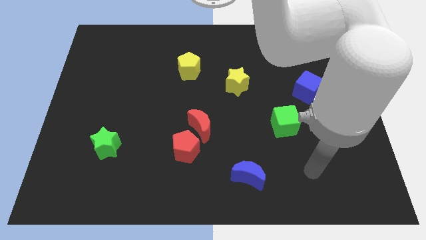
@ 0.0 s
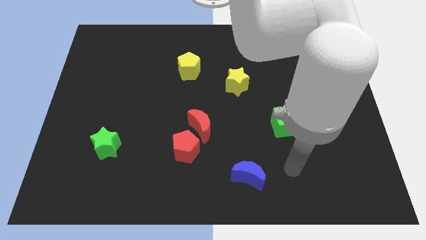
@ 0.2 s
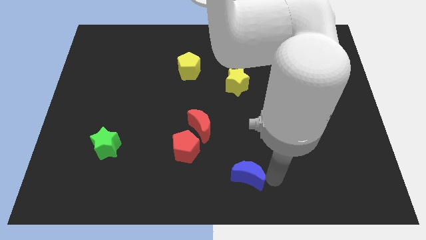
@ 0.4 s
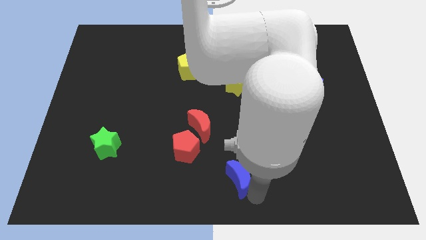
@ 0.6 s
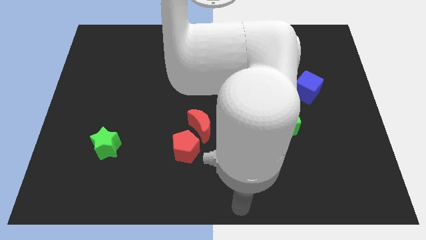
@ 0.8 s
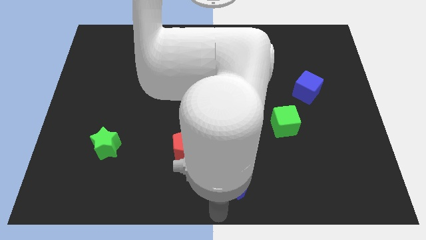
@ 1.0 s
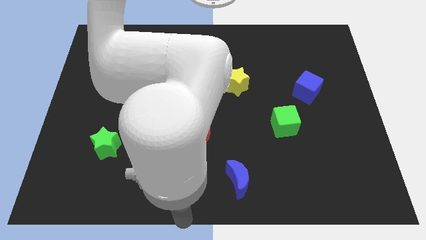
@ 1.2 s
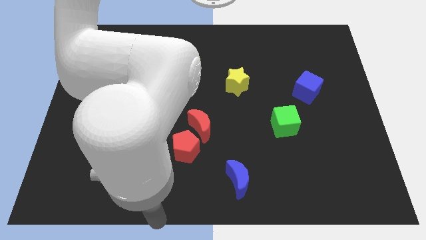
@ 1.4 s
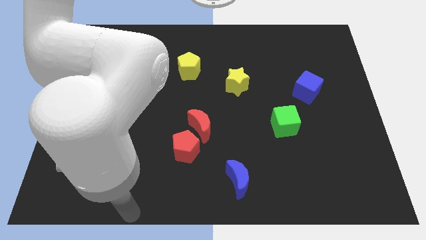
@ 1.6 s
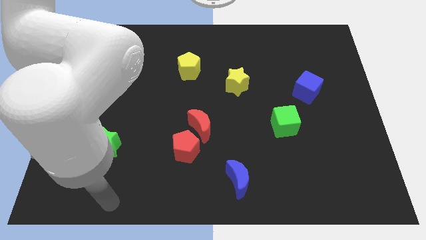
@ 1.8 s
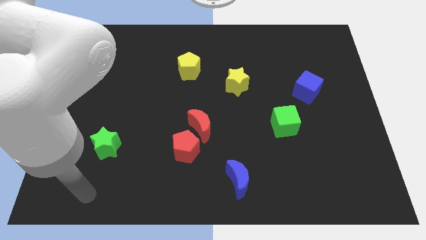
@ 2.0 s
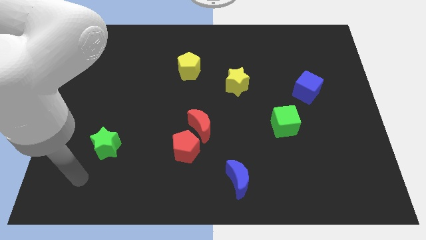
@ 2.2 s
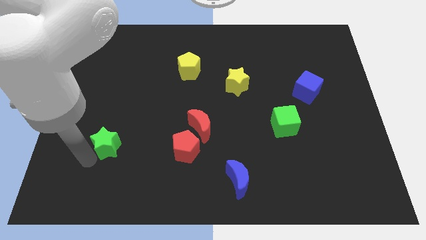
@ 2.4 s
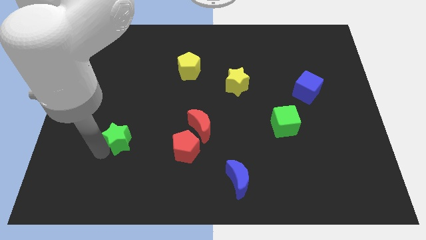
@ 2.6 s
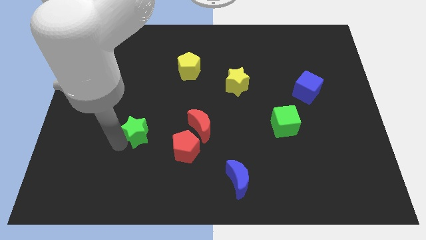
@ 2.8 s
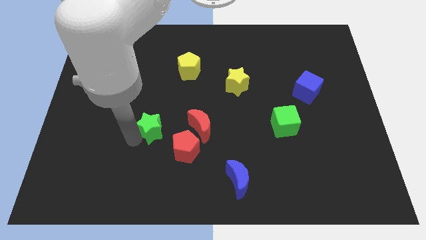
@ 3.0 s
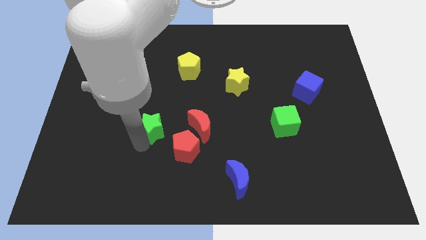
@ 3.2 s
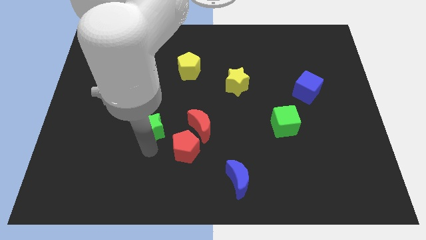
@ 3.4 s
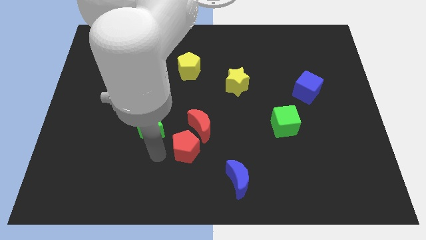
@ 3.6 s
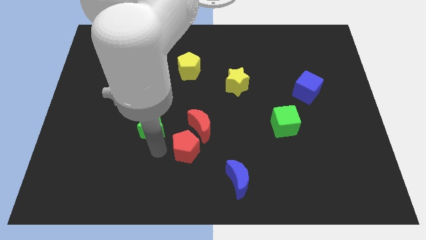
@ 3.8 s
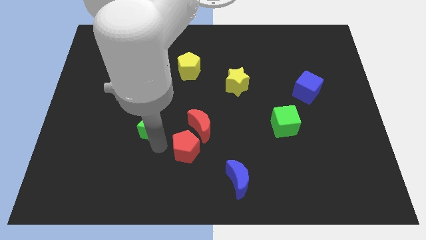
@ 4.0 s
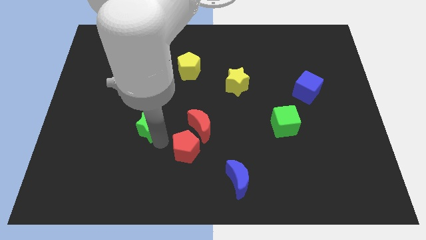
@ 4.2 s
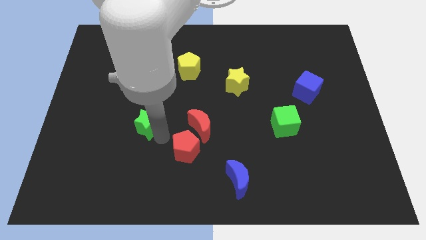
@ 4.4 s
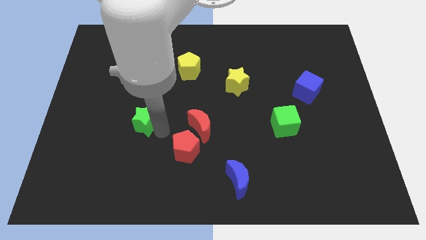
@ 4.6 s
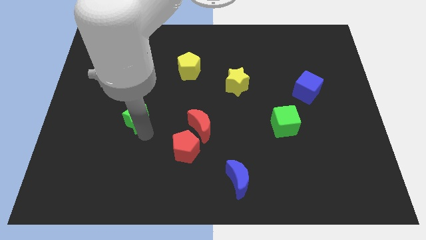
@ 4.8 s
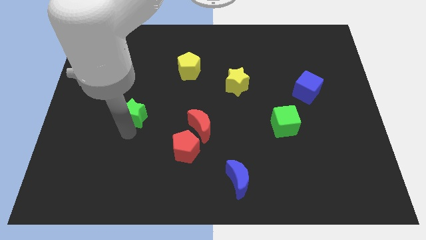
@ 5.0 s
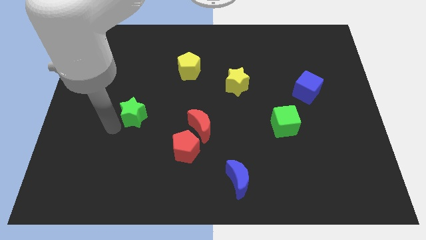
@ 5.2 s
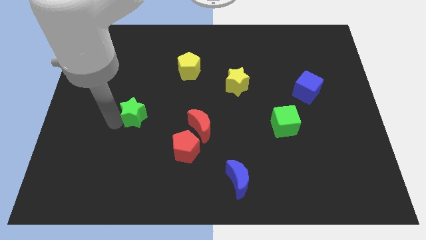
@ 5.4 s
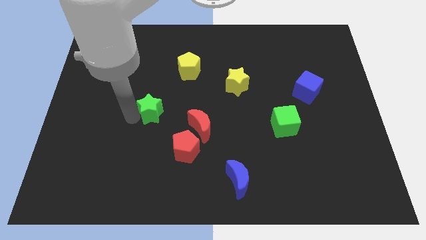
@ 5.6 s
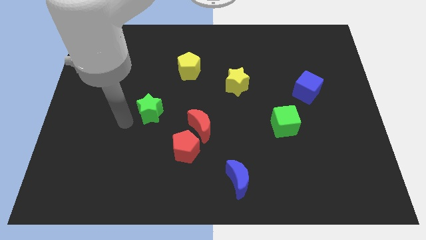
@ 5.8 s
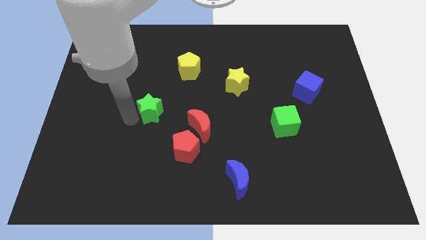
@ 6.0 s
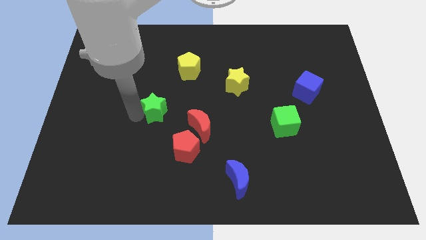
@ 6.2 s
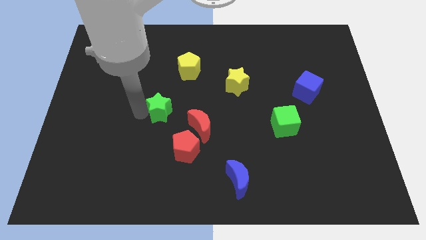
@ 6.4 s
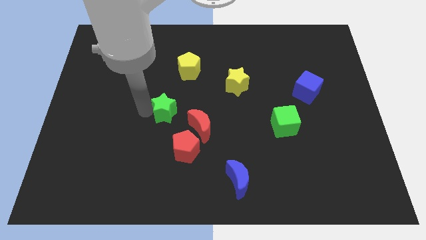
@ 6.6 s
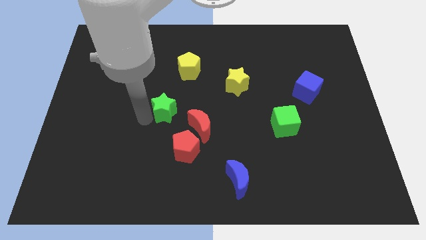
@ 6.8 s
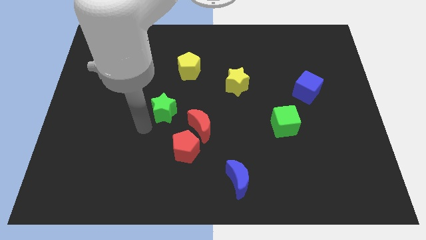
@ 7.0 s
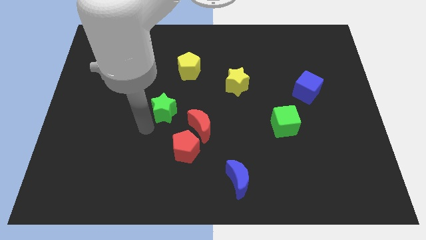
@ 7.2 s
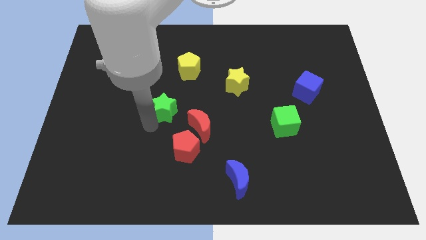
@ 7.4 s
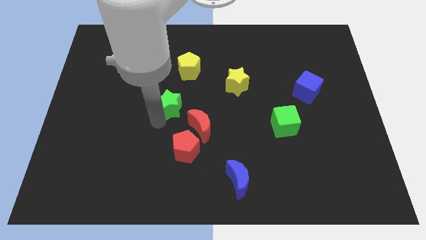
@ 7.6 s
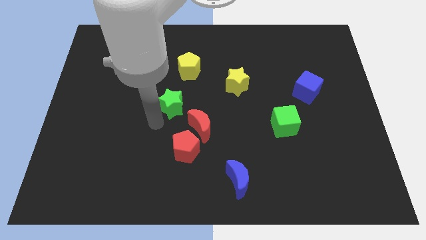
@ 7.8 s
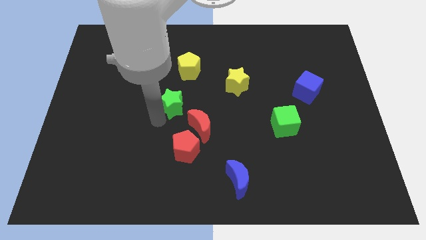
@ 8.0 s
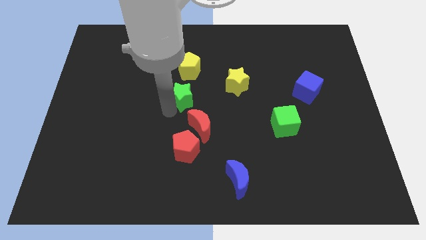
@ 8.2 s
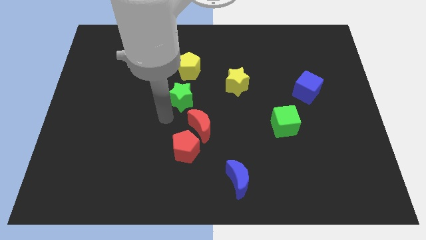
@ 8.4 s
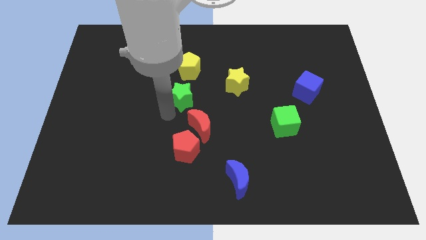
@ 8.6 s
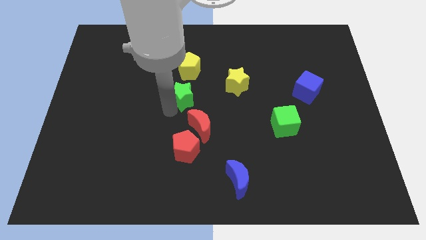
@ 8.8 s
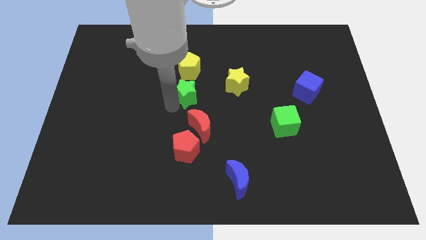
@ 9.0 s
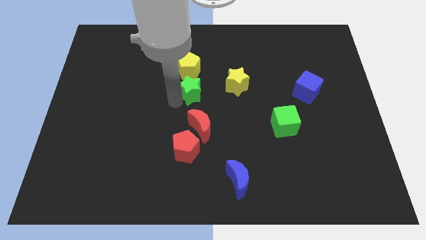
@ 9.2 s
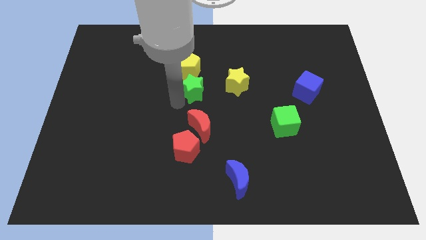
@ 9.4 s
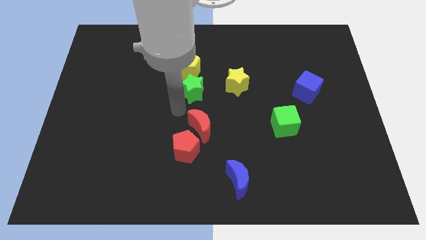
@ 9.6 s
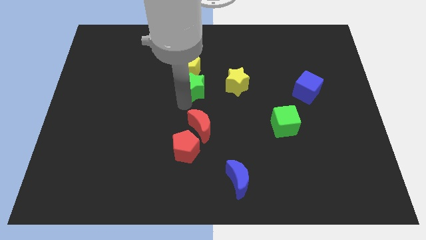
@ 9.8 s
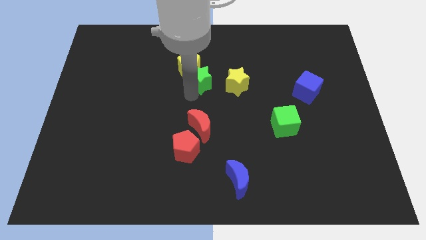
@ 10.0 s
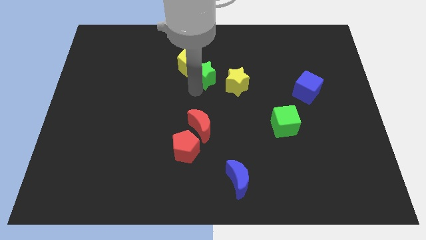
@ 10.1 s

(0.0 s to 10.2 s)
move the green star to the top left side of the yellow star

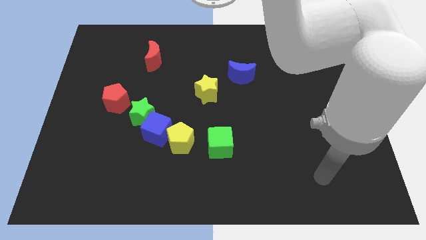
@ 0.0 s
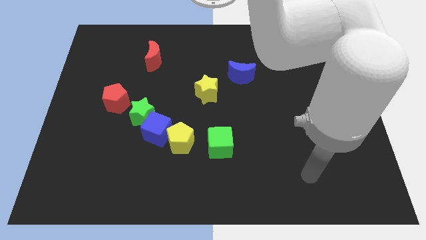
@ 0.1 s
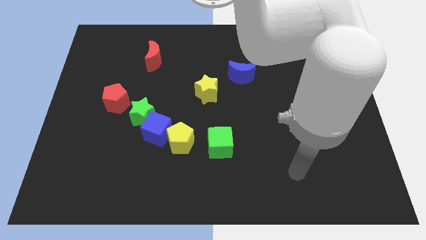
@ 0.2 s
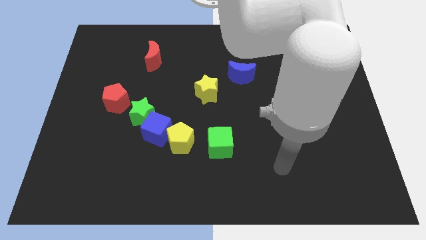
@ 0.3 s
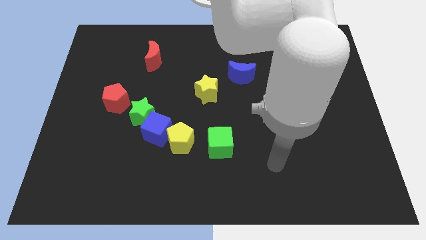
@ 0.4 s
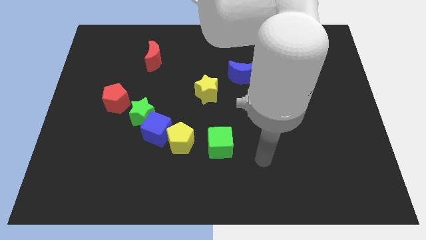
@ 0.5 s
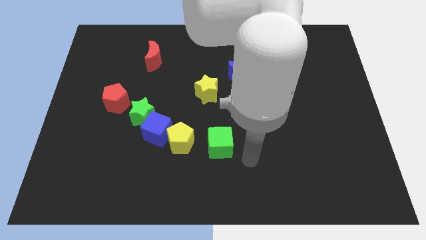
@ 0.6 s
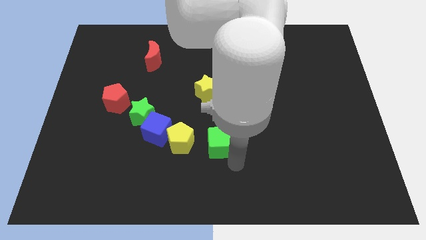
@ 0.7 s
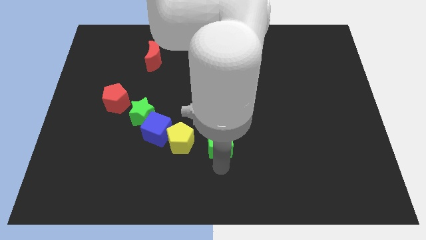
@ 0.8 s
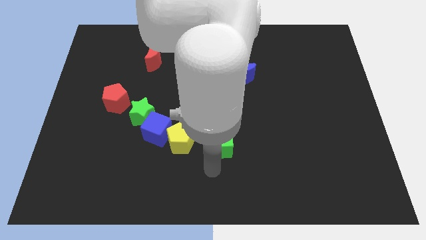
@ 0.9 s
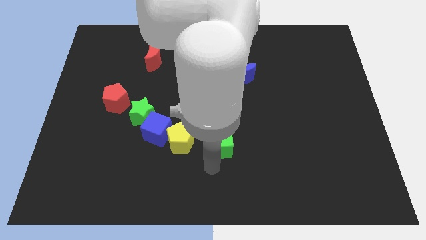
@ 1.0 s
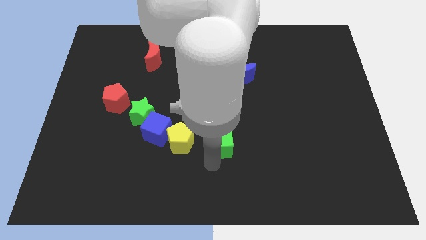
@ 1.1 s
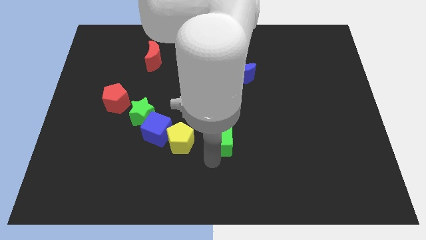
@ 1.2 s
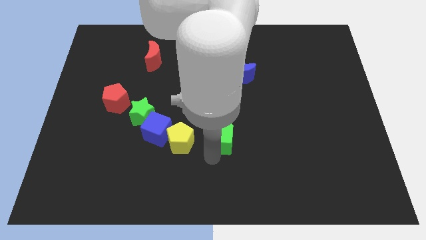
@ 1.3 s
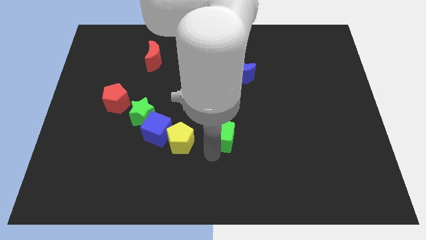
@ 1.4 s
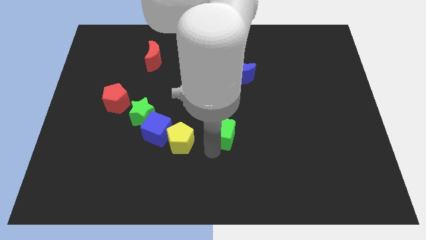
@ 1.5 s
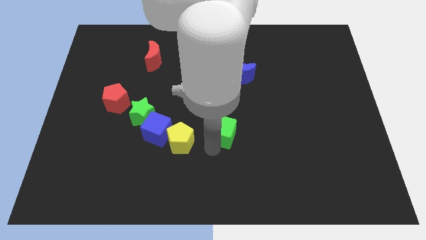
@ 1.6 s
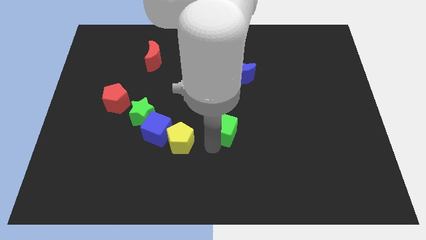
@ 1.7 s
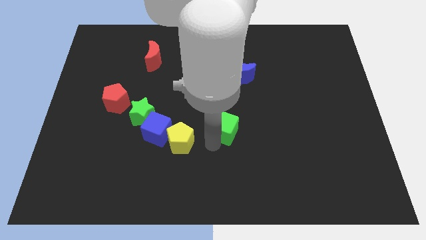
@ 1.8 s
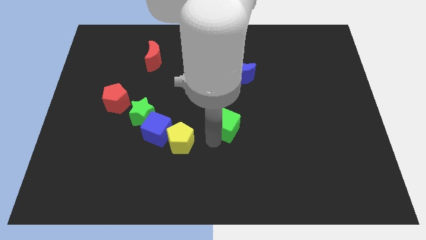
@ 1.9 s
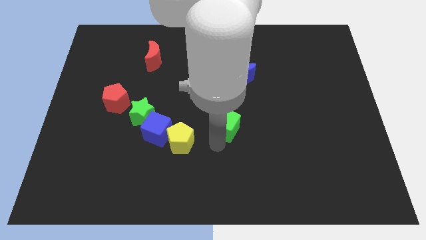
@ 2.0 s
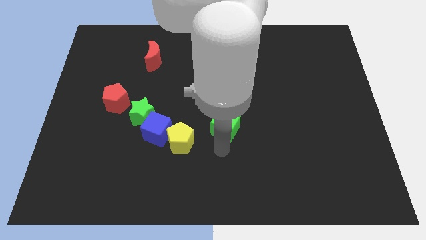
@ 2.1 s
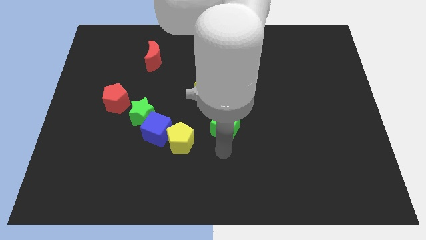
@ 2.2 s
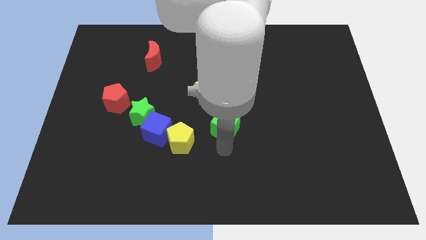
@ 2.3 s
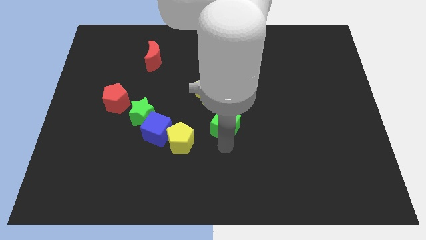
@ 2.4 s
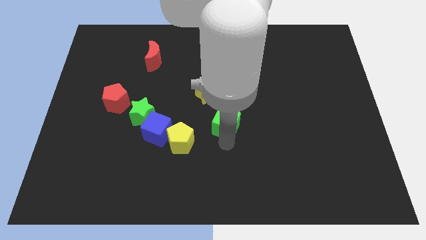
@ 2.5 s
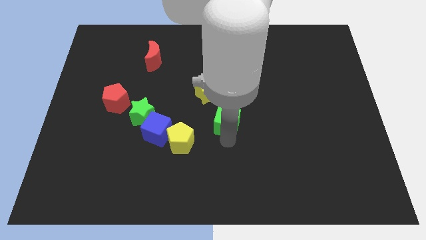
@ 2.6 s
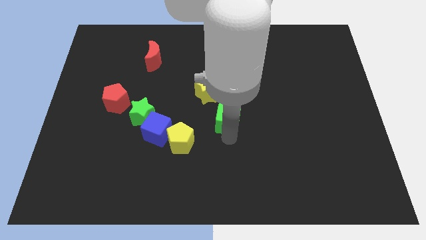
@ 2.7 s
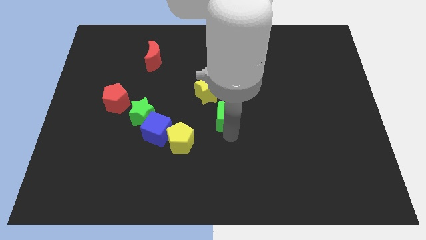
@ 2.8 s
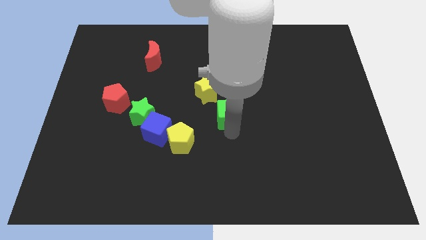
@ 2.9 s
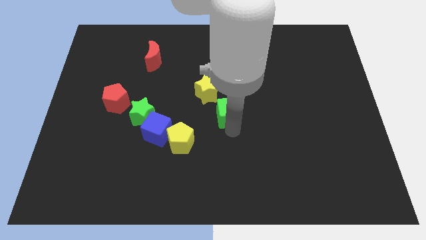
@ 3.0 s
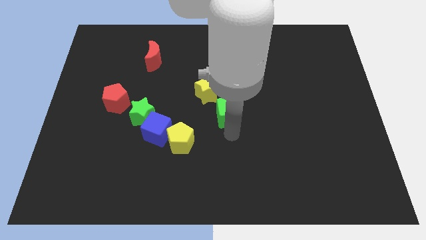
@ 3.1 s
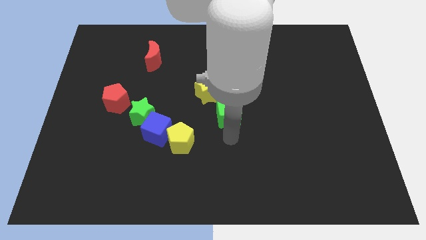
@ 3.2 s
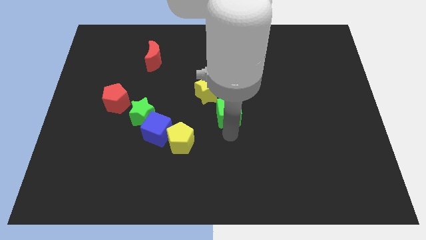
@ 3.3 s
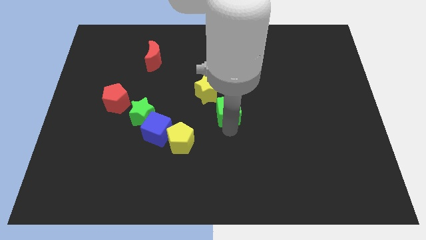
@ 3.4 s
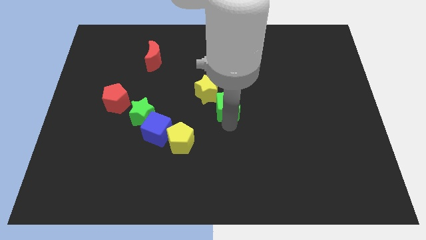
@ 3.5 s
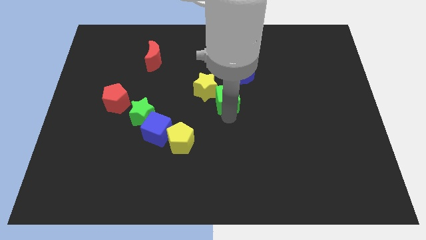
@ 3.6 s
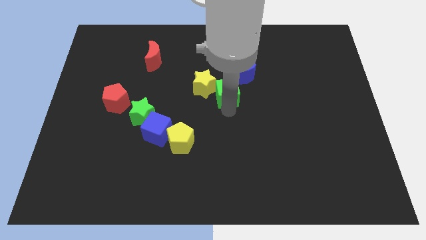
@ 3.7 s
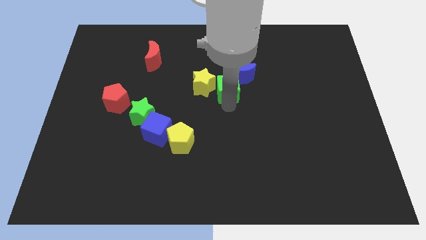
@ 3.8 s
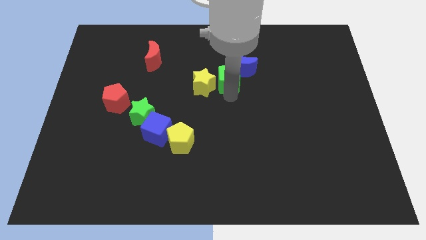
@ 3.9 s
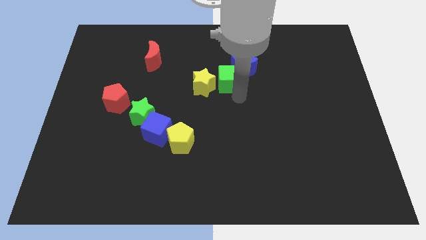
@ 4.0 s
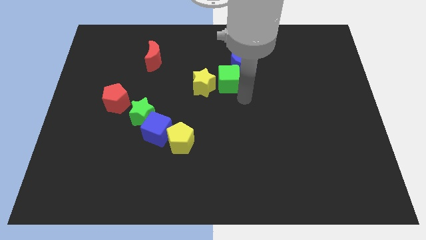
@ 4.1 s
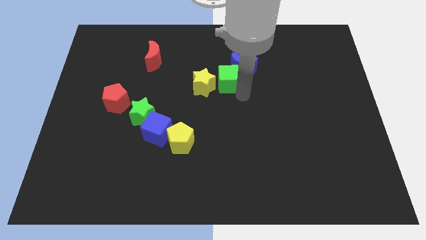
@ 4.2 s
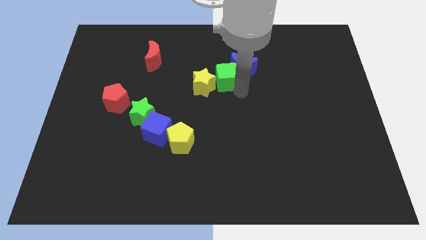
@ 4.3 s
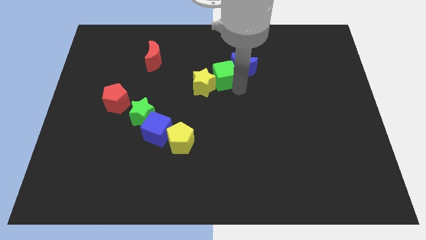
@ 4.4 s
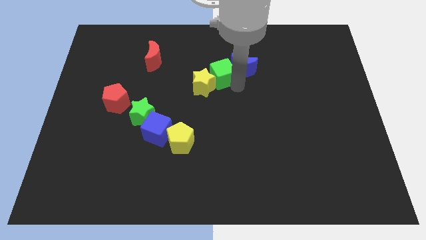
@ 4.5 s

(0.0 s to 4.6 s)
slide the green cube to the top of the yellow star
